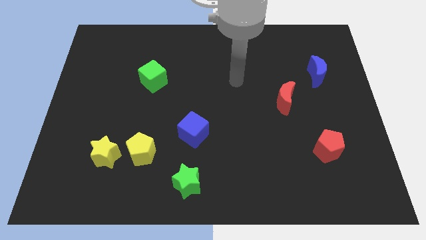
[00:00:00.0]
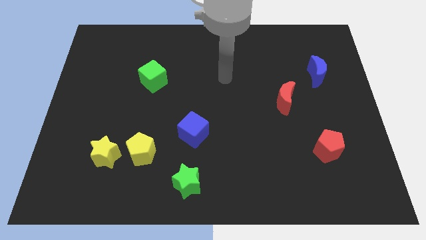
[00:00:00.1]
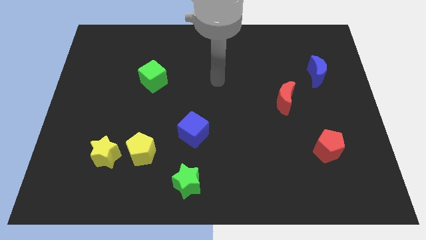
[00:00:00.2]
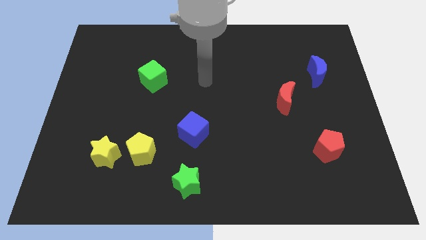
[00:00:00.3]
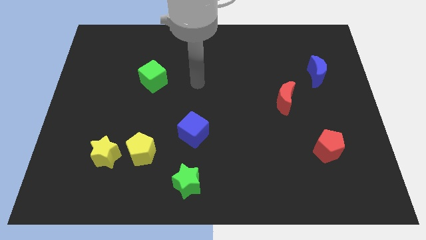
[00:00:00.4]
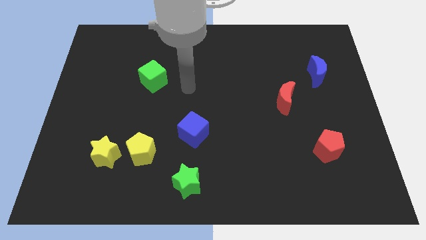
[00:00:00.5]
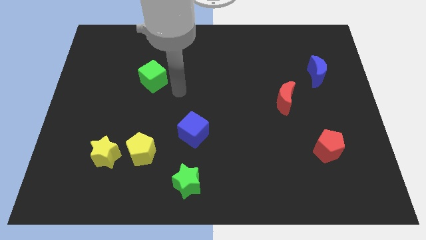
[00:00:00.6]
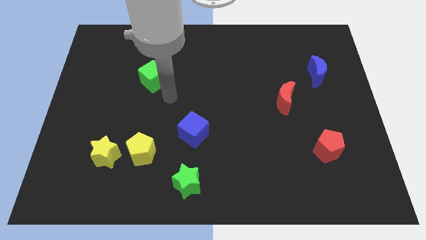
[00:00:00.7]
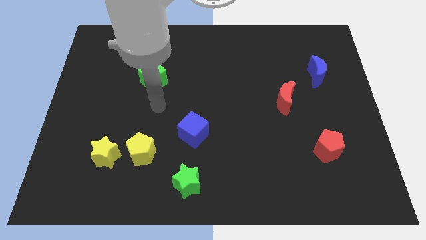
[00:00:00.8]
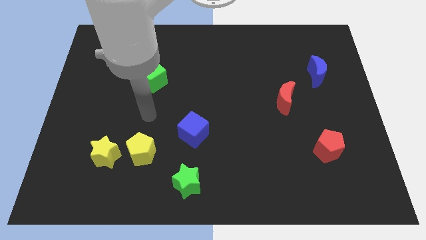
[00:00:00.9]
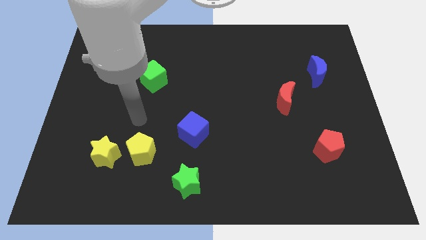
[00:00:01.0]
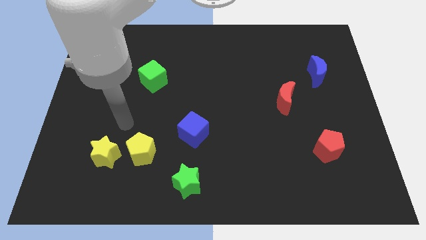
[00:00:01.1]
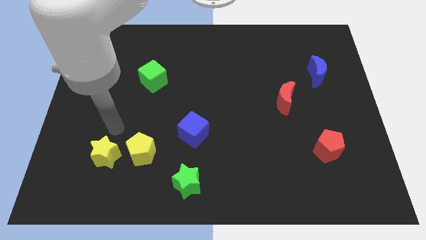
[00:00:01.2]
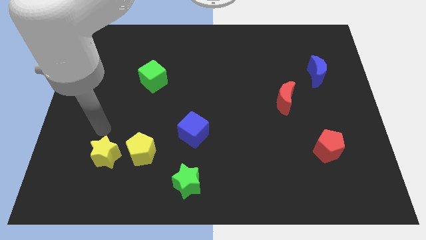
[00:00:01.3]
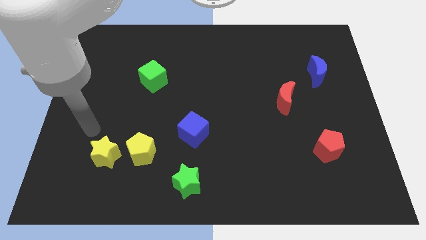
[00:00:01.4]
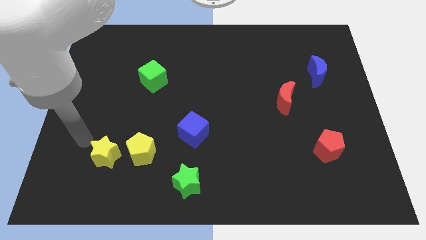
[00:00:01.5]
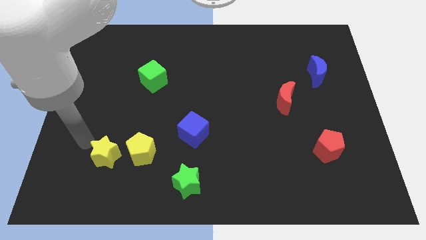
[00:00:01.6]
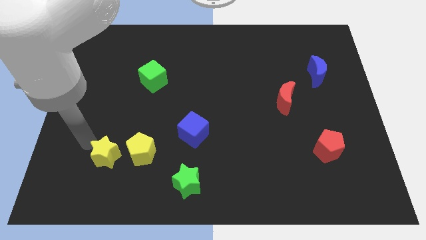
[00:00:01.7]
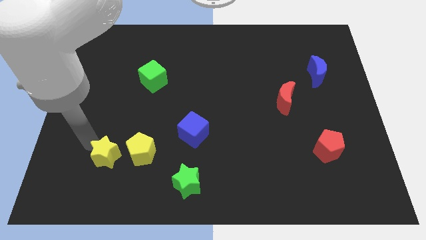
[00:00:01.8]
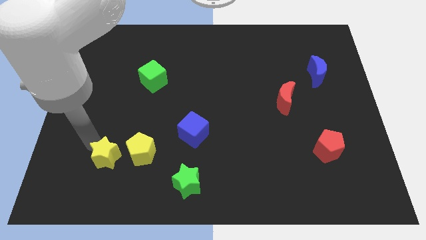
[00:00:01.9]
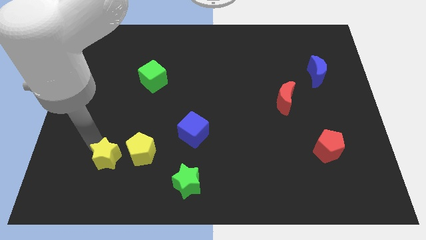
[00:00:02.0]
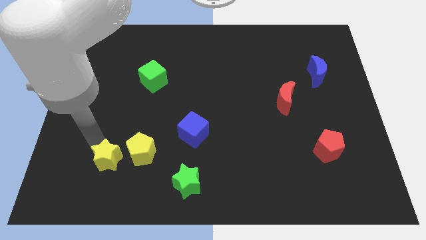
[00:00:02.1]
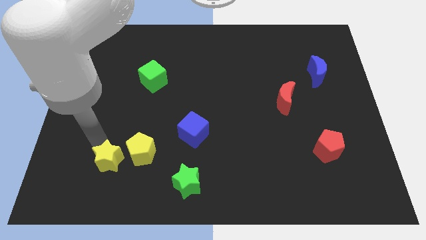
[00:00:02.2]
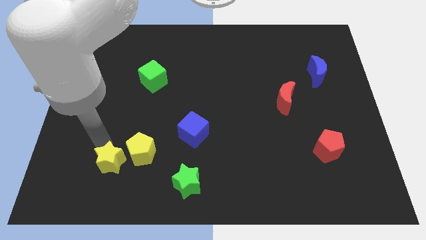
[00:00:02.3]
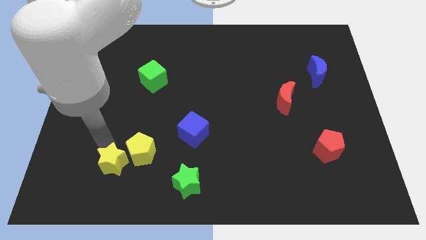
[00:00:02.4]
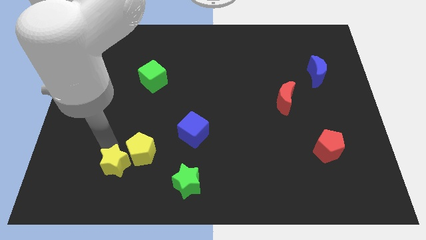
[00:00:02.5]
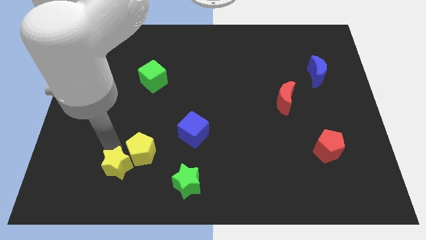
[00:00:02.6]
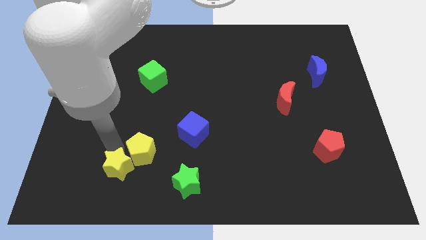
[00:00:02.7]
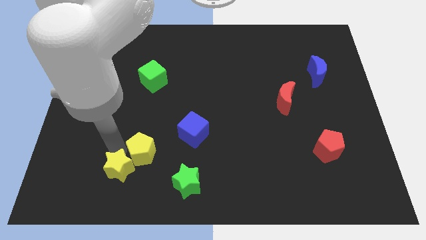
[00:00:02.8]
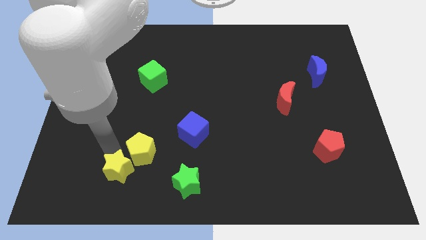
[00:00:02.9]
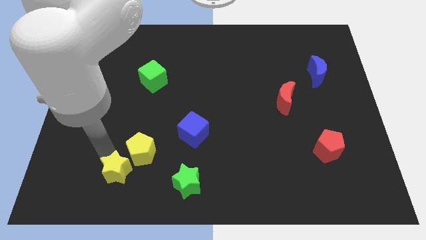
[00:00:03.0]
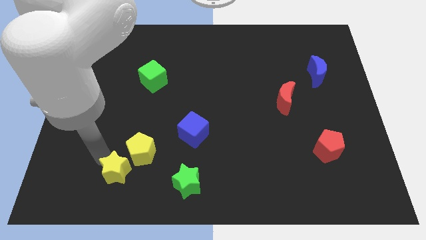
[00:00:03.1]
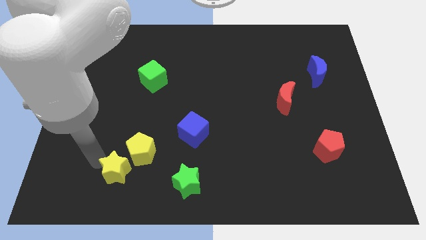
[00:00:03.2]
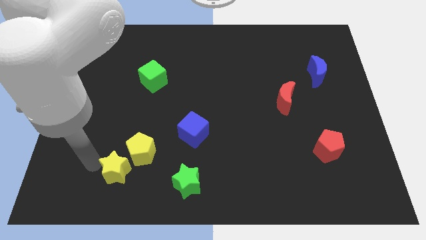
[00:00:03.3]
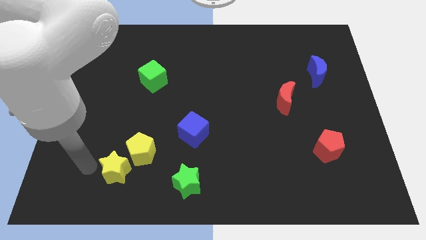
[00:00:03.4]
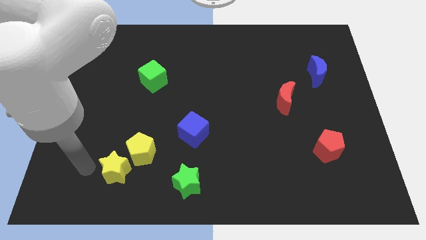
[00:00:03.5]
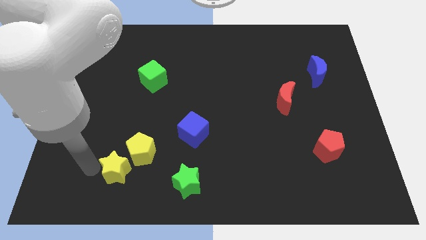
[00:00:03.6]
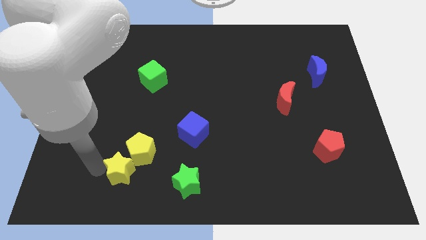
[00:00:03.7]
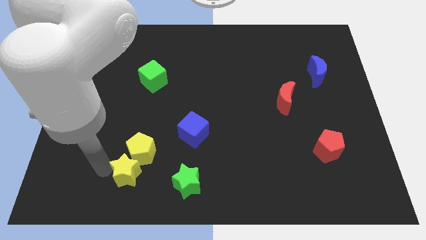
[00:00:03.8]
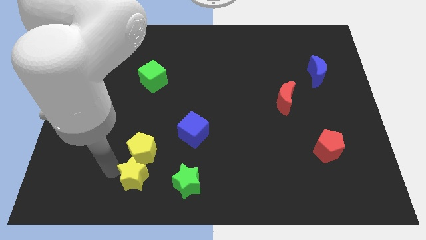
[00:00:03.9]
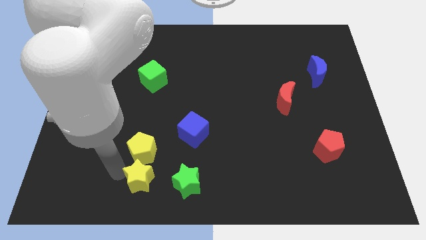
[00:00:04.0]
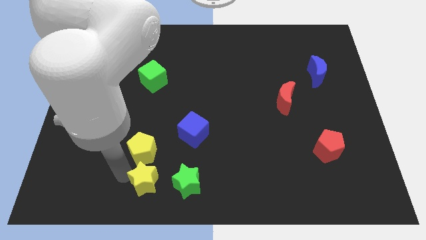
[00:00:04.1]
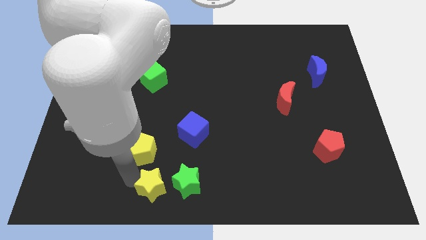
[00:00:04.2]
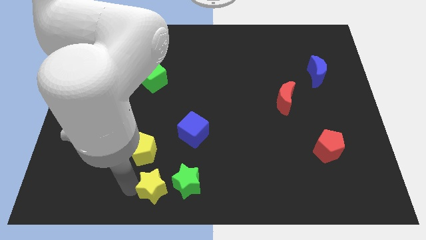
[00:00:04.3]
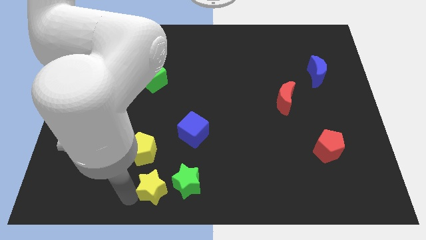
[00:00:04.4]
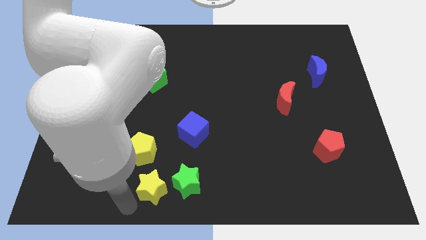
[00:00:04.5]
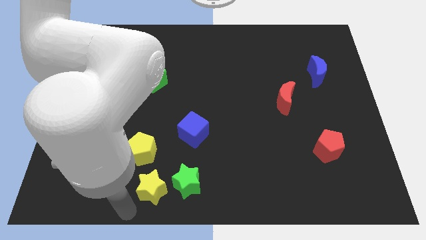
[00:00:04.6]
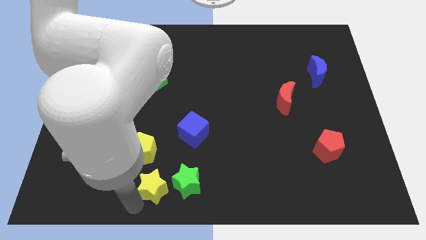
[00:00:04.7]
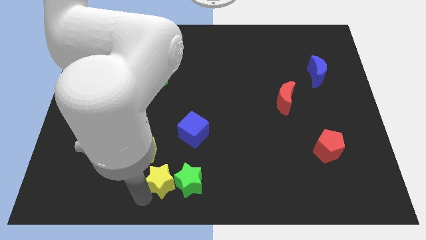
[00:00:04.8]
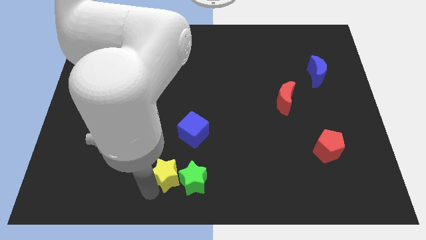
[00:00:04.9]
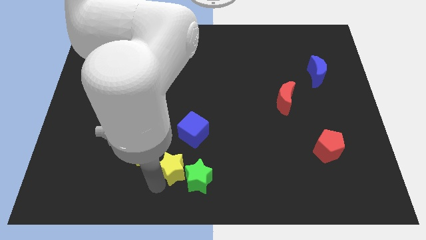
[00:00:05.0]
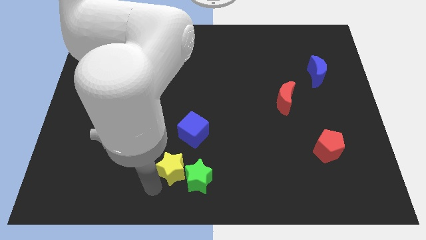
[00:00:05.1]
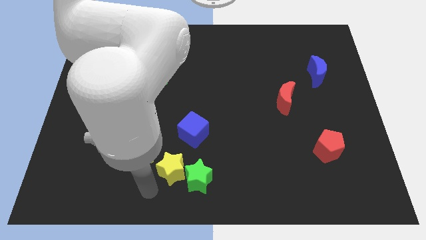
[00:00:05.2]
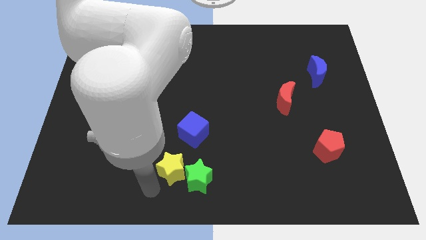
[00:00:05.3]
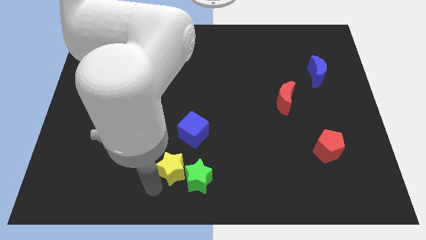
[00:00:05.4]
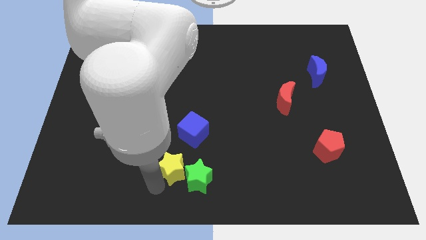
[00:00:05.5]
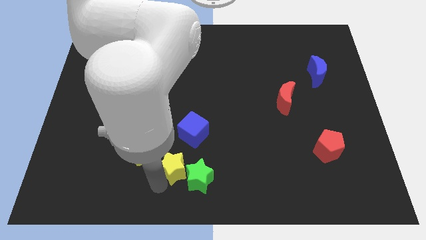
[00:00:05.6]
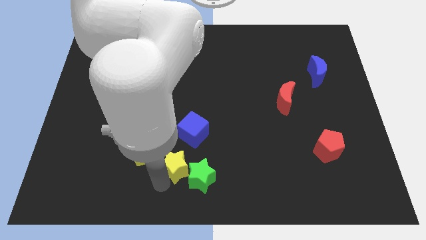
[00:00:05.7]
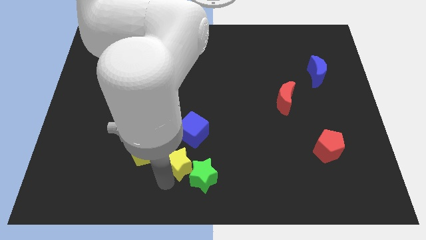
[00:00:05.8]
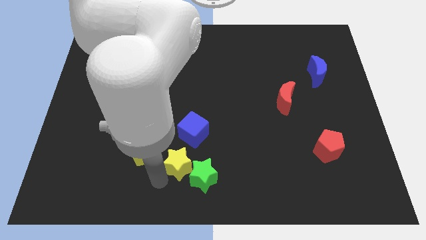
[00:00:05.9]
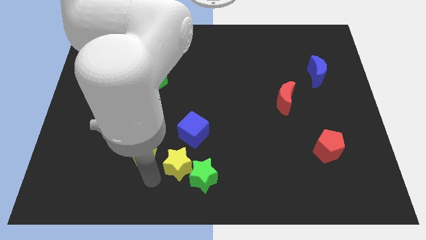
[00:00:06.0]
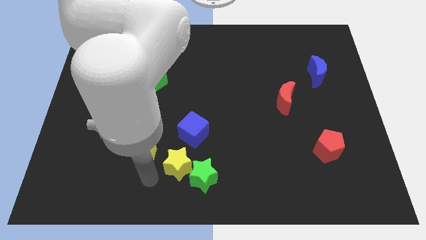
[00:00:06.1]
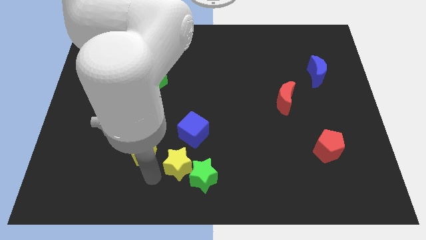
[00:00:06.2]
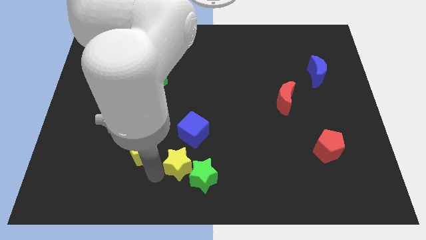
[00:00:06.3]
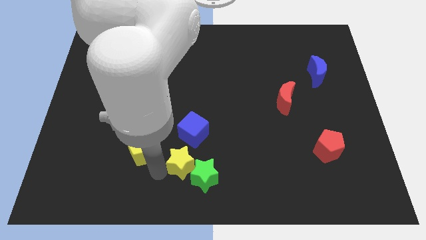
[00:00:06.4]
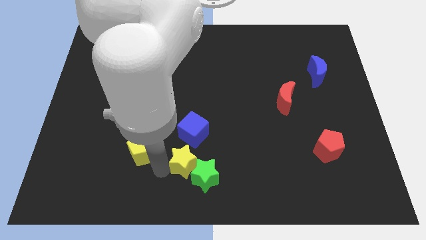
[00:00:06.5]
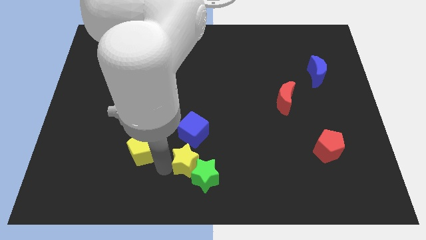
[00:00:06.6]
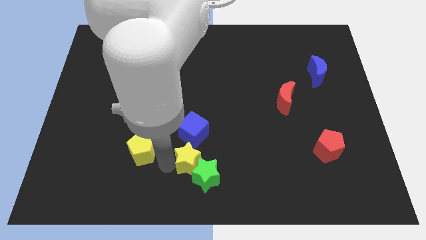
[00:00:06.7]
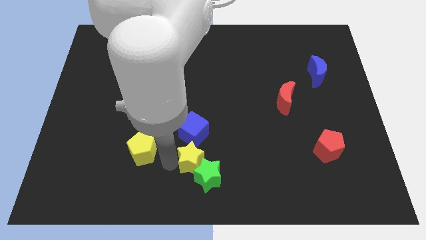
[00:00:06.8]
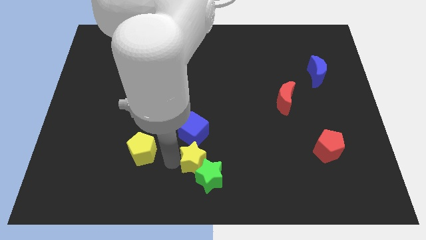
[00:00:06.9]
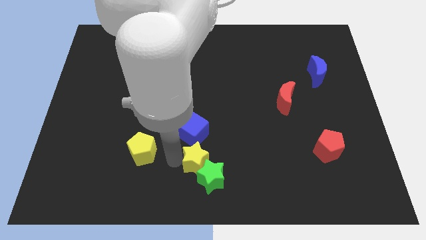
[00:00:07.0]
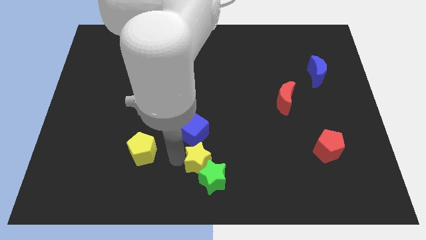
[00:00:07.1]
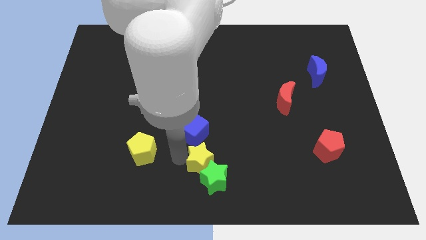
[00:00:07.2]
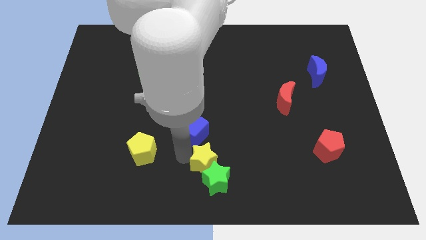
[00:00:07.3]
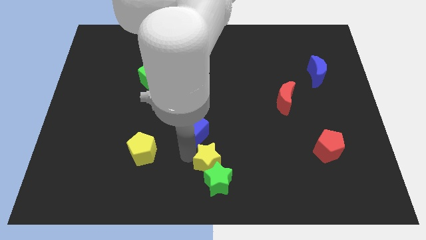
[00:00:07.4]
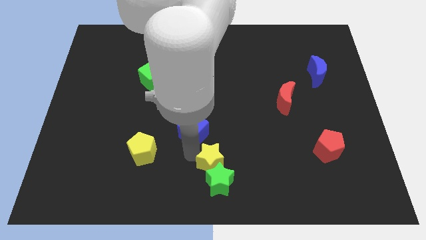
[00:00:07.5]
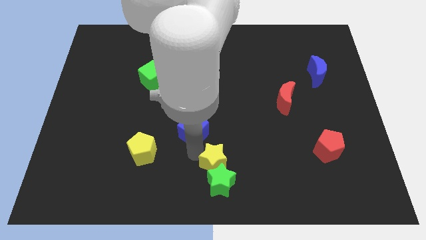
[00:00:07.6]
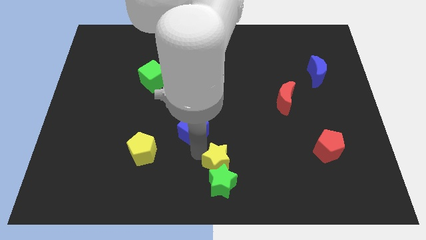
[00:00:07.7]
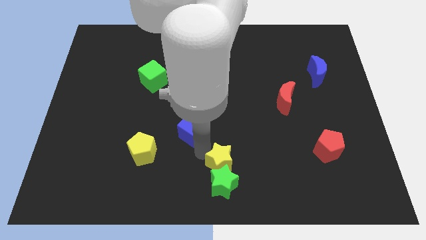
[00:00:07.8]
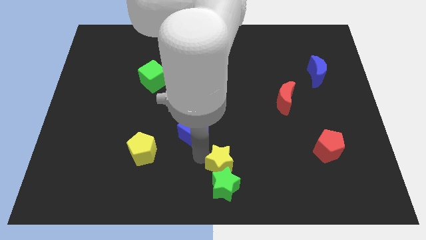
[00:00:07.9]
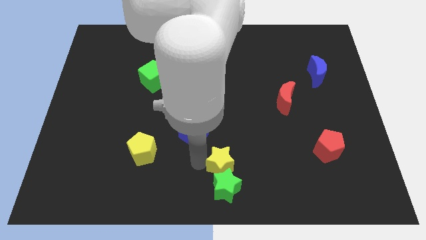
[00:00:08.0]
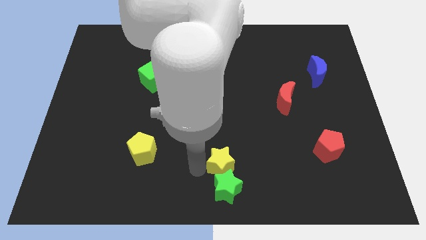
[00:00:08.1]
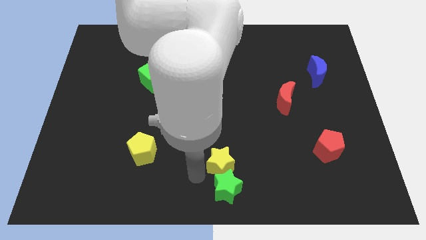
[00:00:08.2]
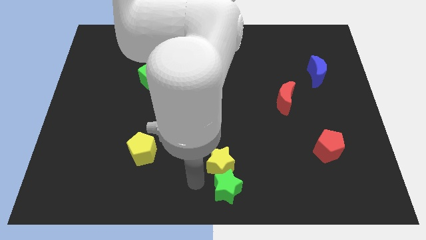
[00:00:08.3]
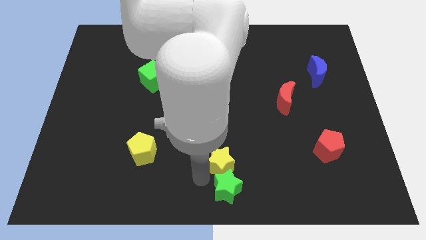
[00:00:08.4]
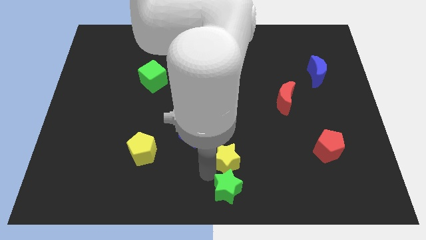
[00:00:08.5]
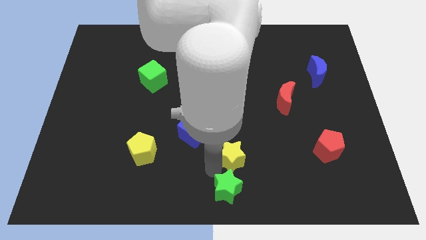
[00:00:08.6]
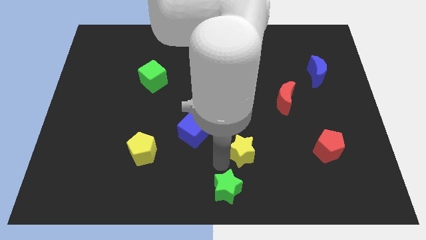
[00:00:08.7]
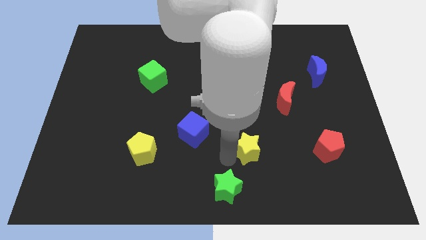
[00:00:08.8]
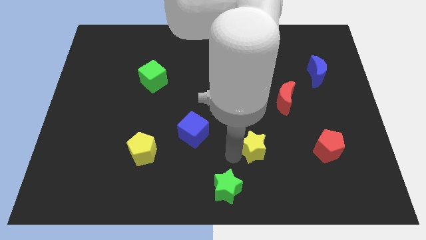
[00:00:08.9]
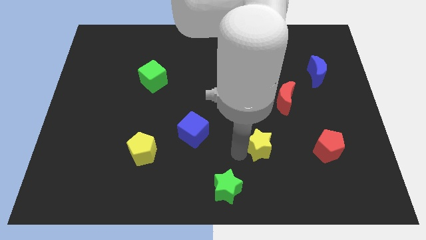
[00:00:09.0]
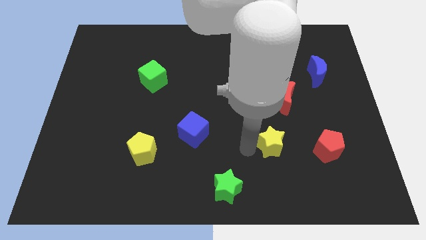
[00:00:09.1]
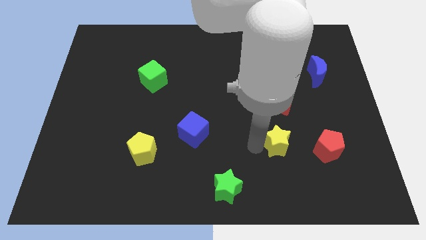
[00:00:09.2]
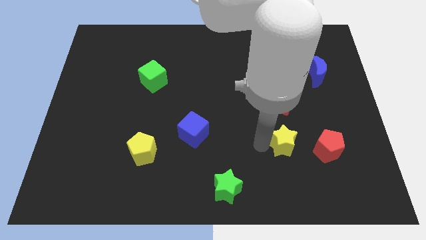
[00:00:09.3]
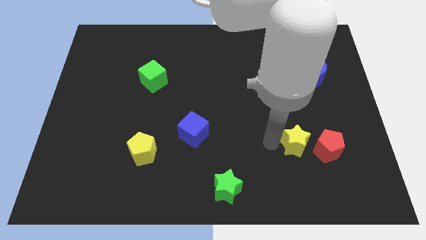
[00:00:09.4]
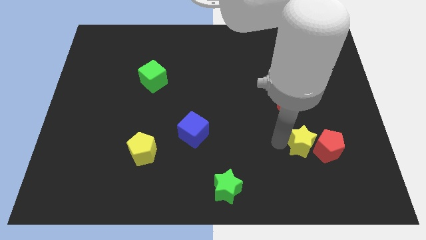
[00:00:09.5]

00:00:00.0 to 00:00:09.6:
move the yellow star to the red pentagon
